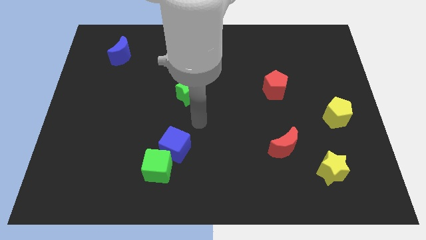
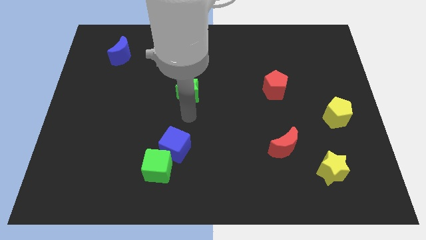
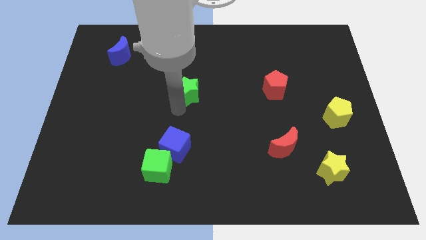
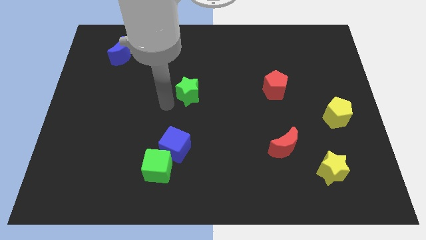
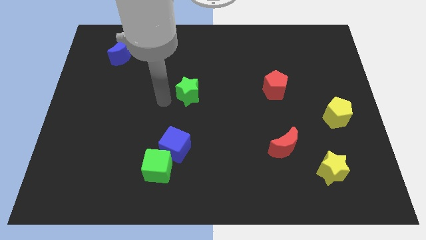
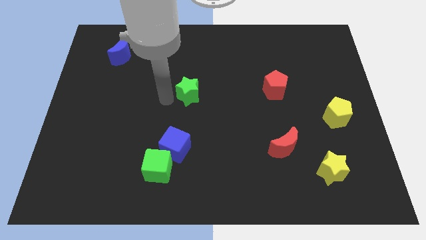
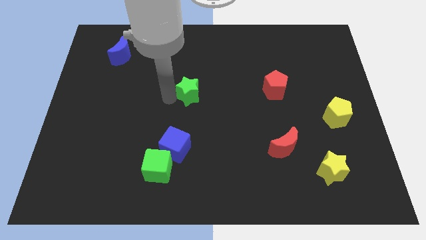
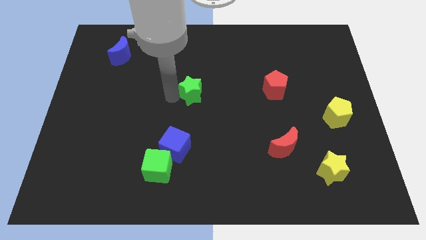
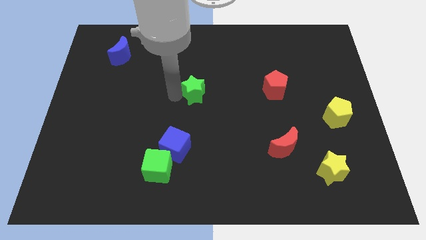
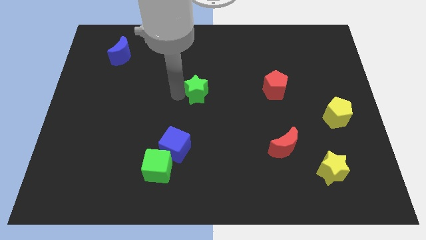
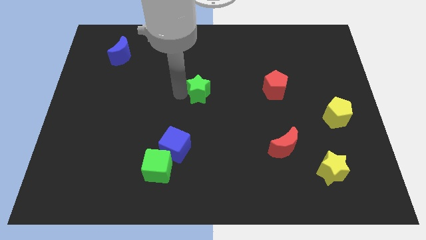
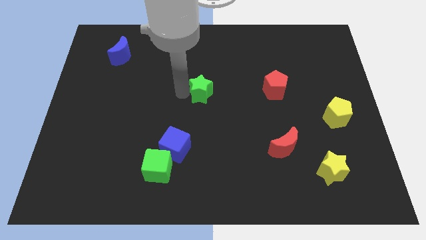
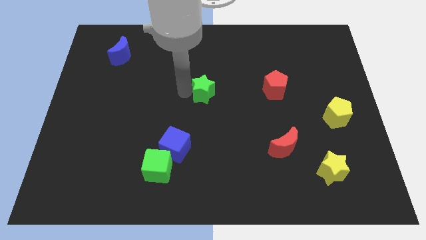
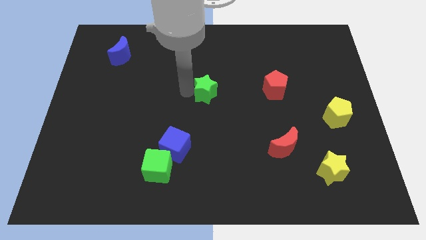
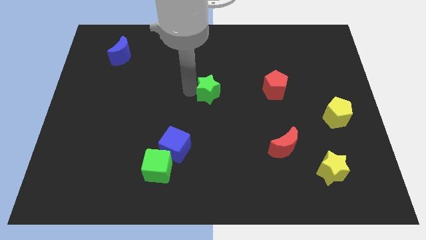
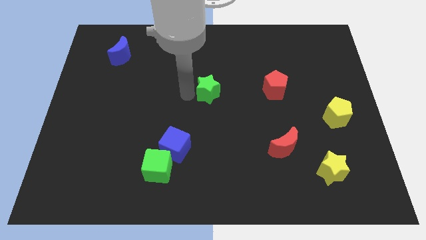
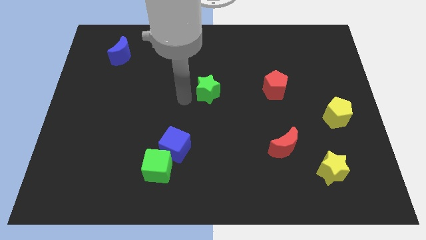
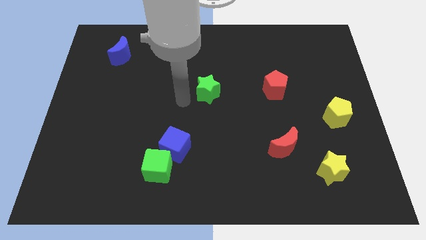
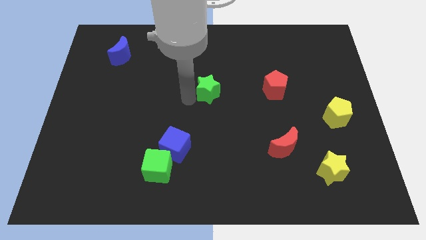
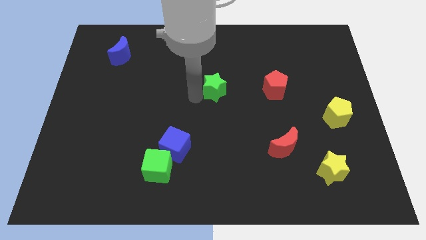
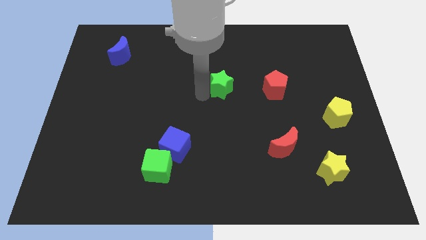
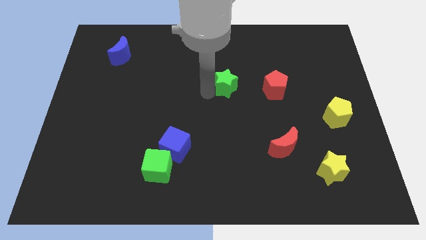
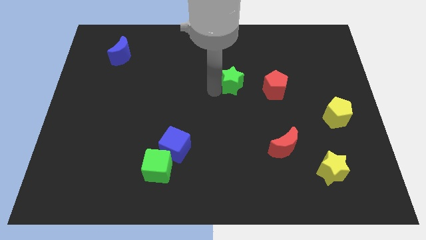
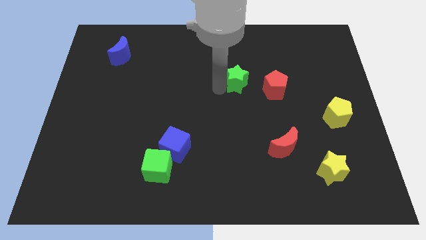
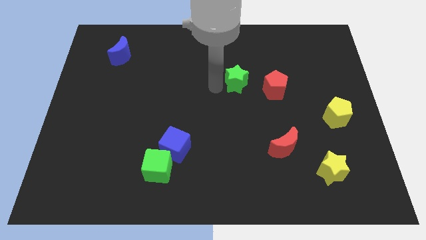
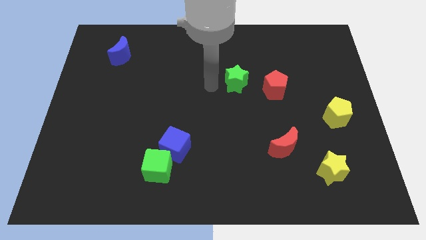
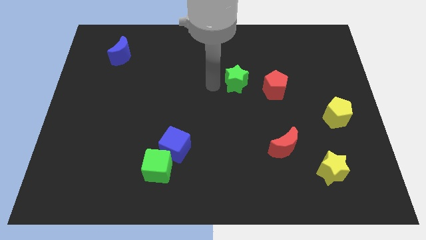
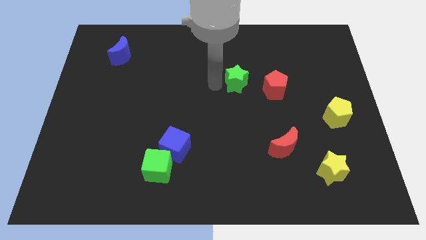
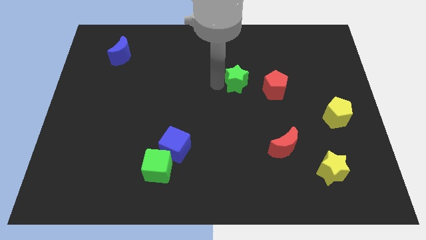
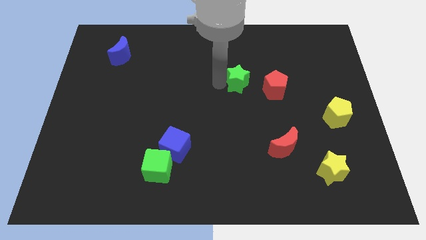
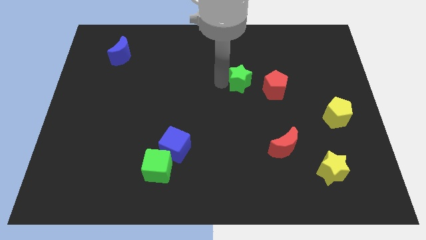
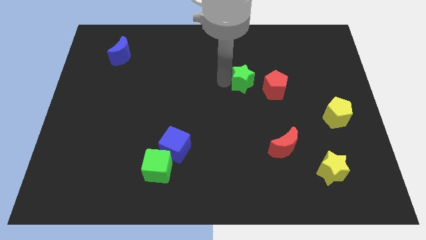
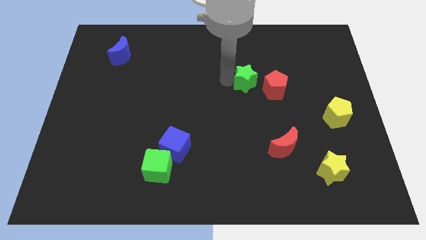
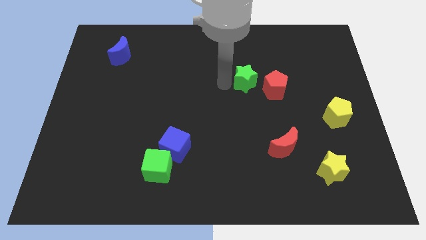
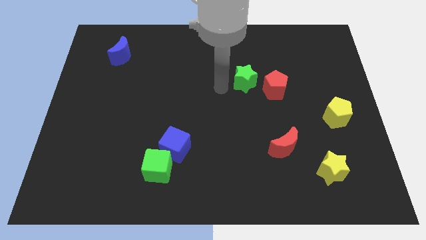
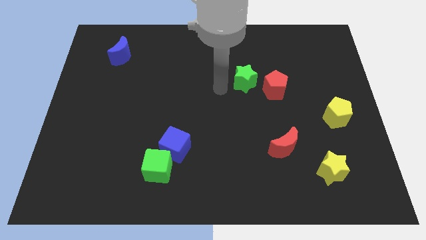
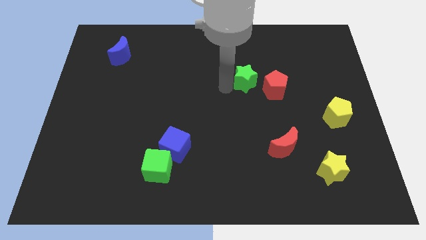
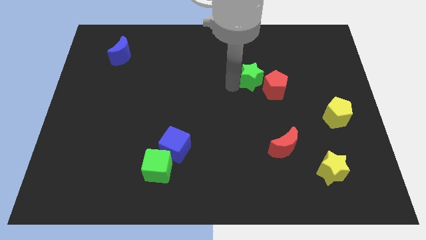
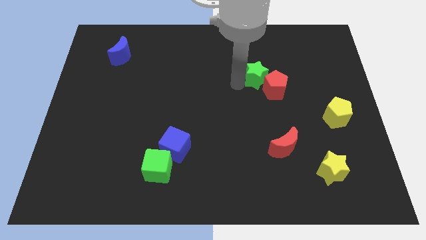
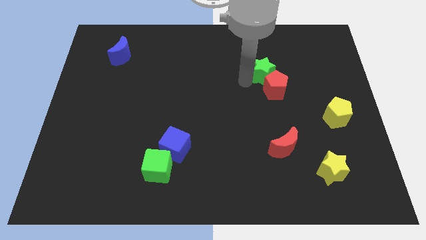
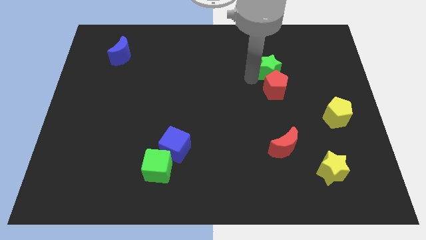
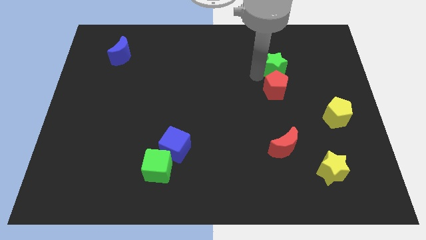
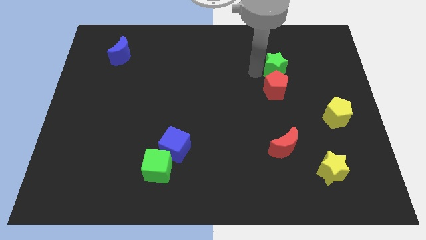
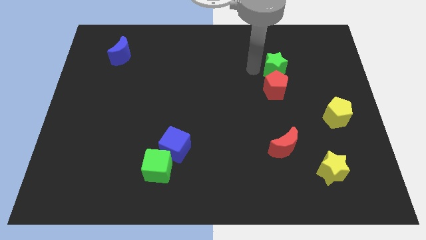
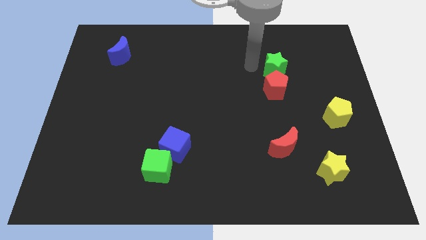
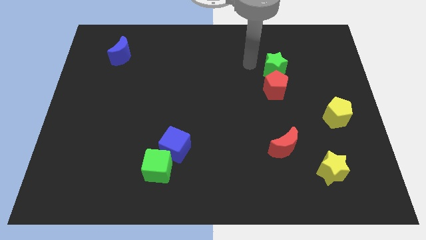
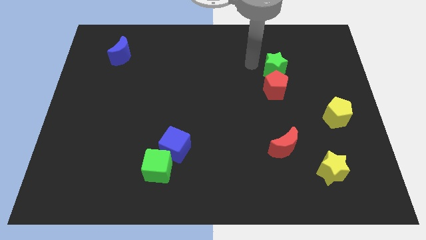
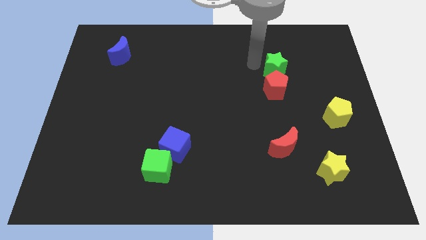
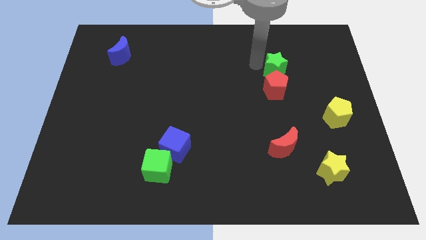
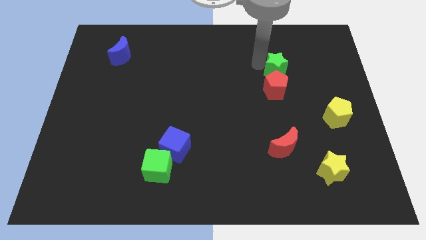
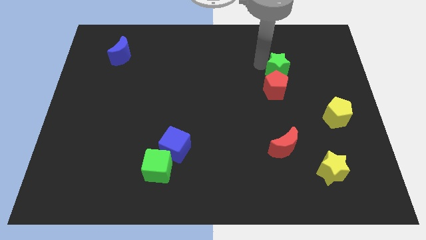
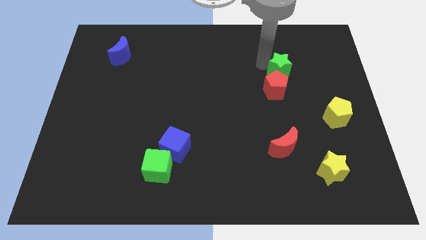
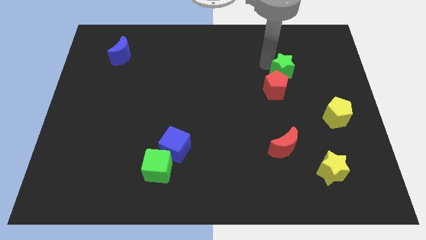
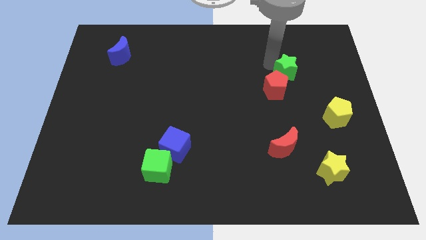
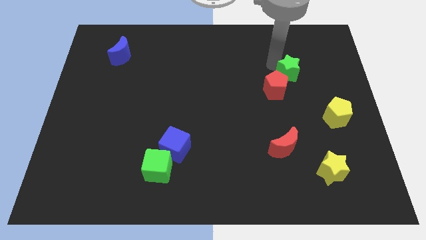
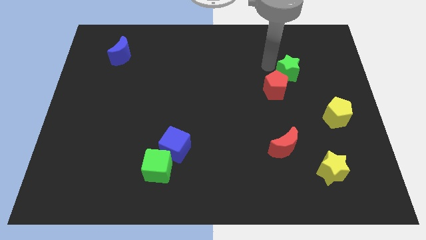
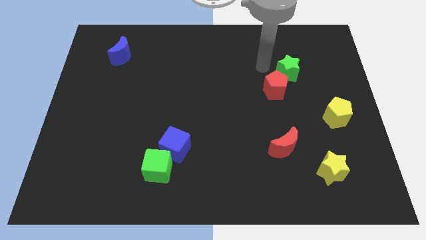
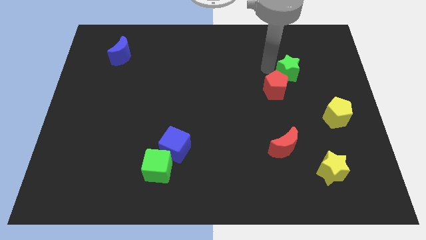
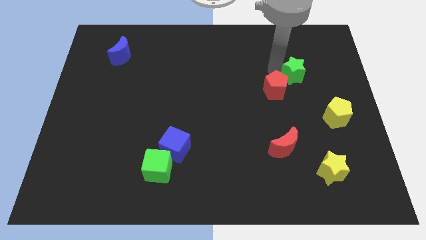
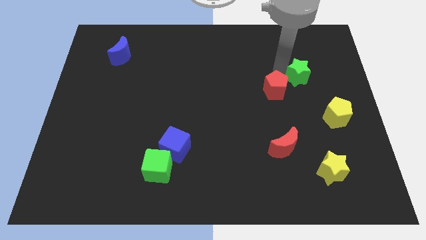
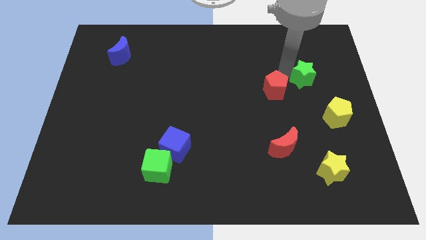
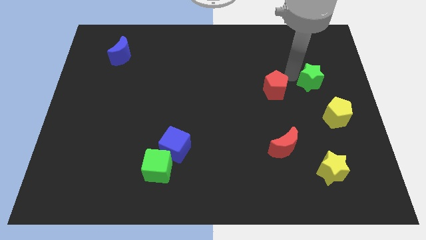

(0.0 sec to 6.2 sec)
put the green star to the top side of the yellow pentagon

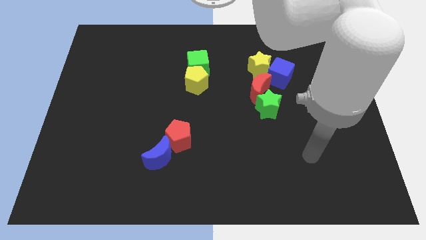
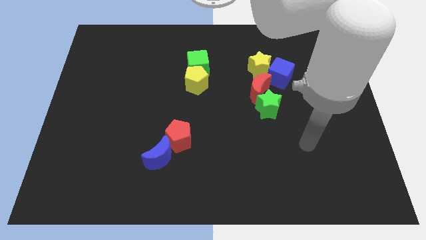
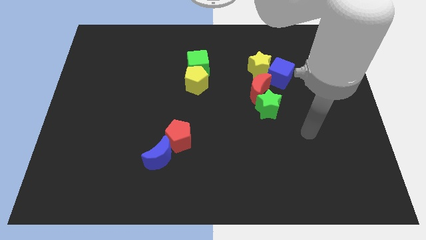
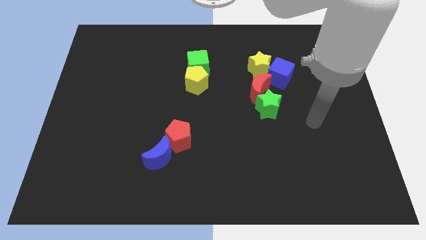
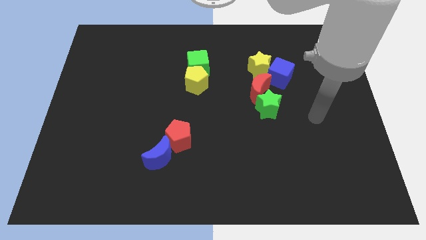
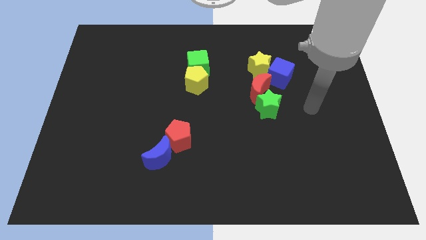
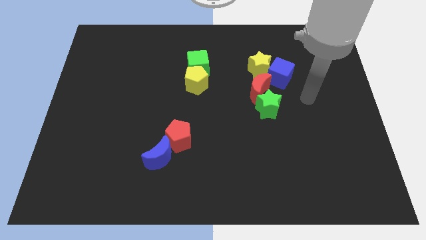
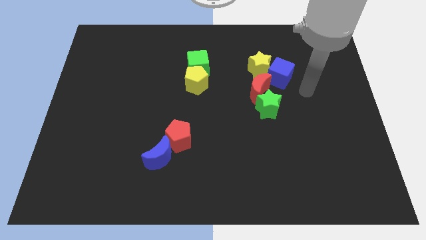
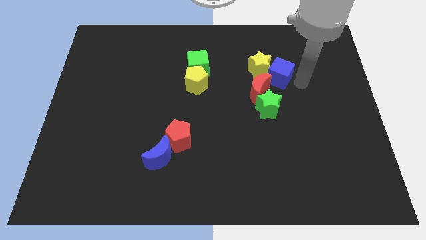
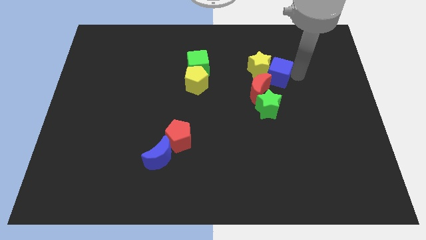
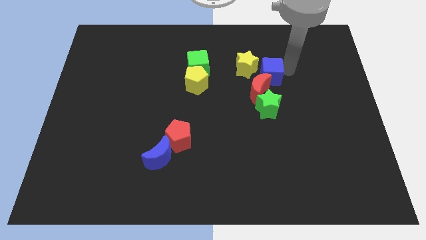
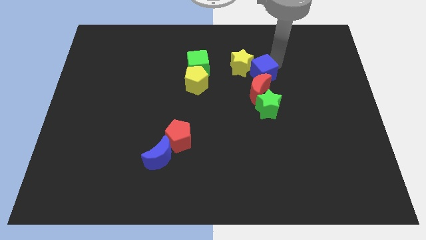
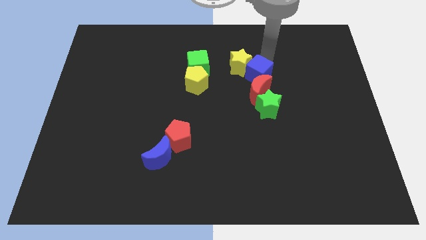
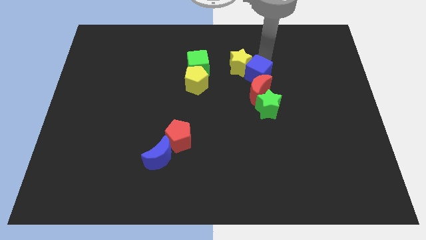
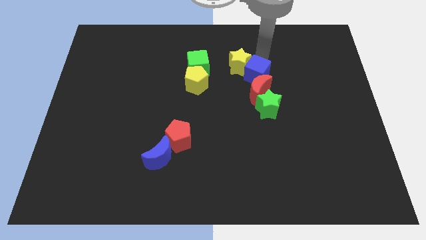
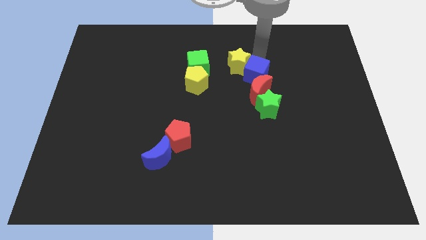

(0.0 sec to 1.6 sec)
slide the yellow star to the top right of the yellow pentagon
